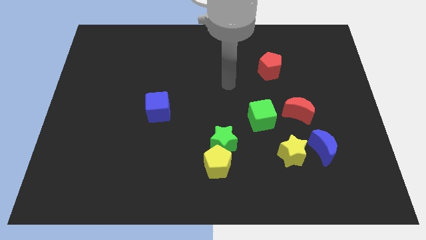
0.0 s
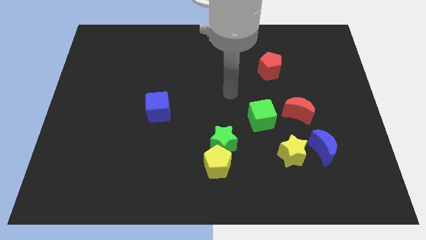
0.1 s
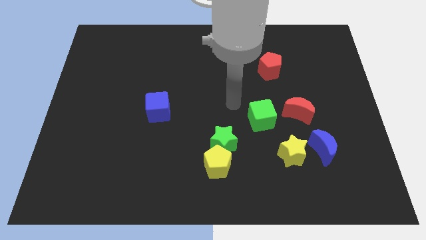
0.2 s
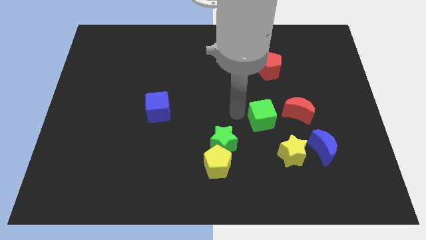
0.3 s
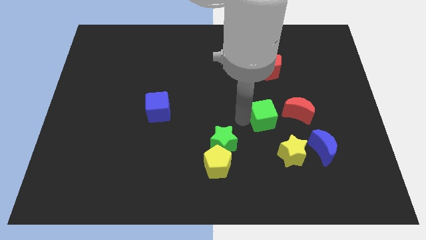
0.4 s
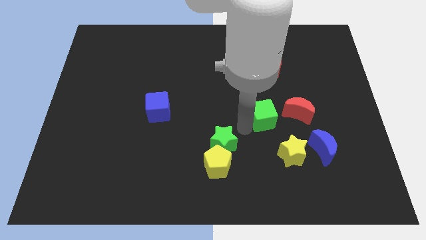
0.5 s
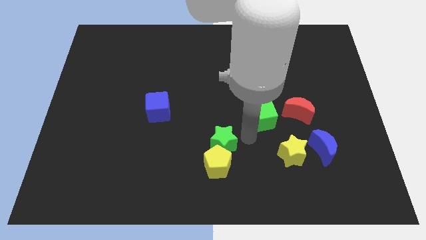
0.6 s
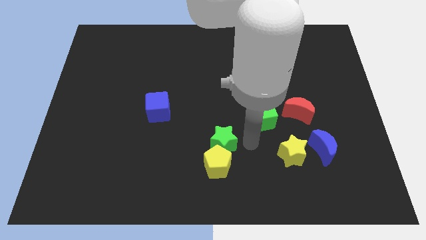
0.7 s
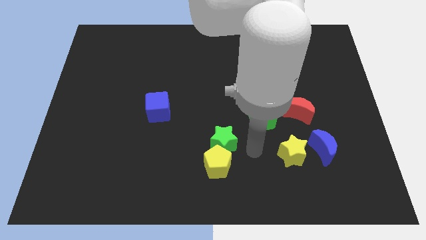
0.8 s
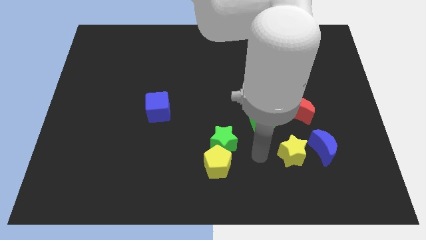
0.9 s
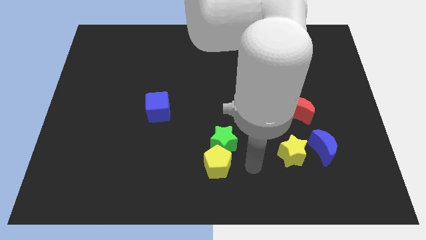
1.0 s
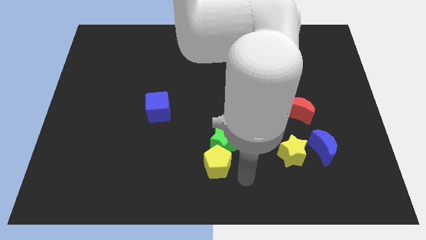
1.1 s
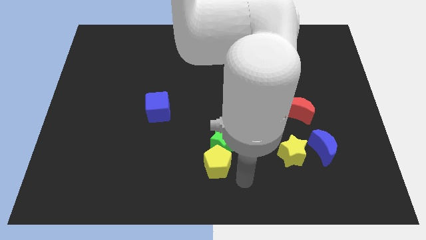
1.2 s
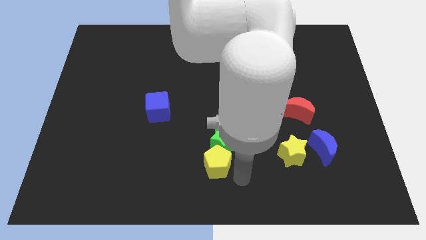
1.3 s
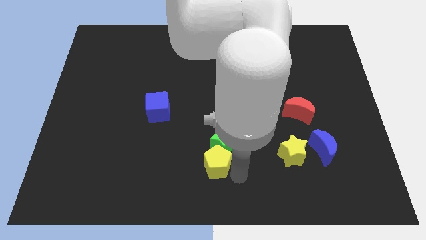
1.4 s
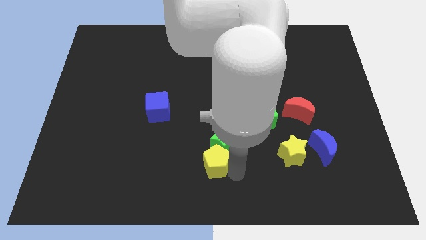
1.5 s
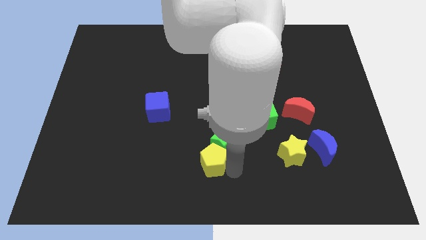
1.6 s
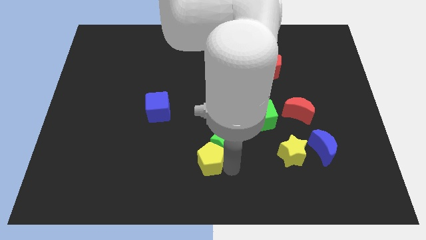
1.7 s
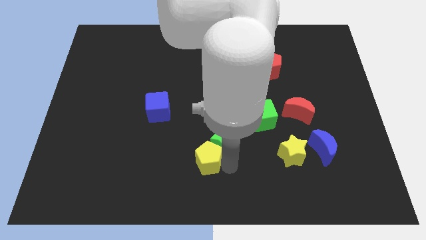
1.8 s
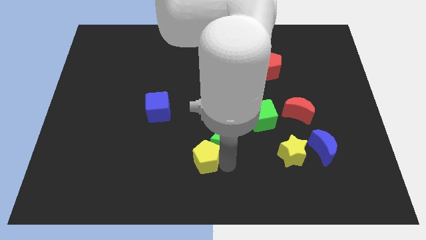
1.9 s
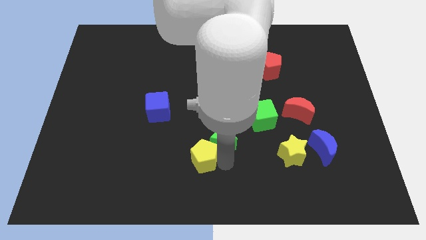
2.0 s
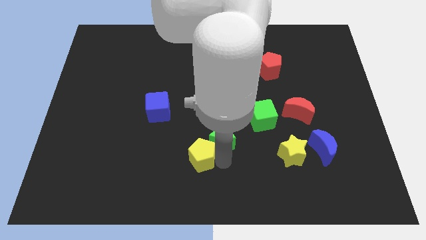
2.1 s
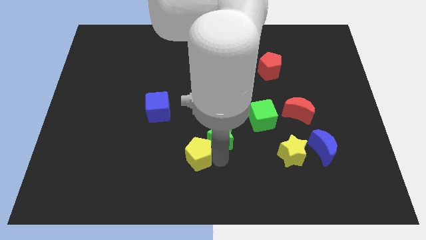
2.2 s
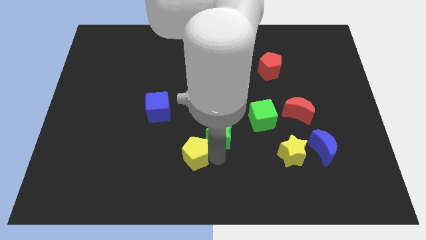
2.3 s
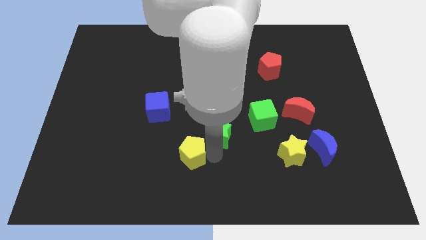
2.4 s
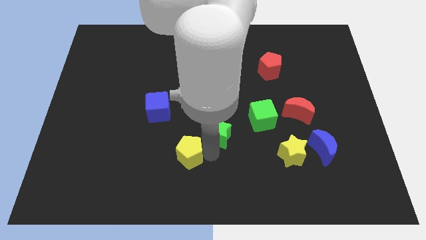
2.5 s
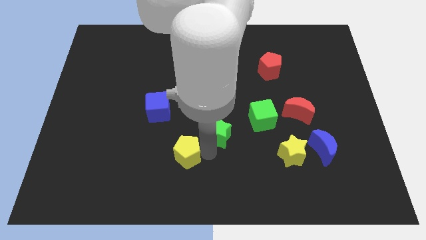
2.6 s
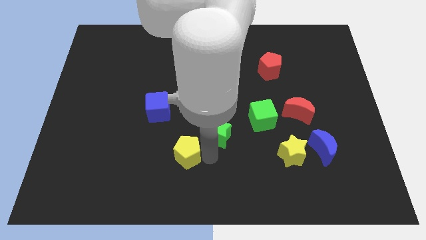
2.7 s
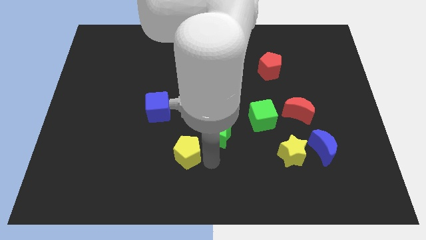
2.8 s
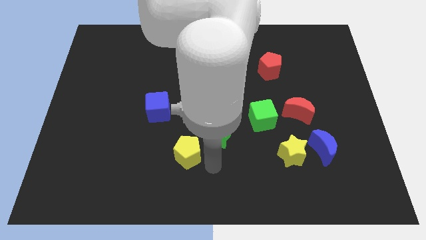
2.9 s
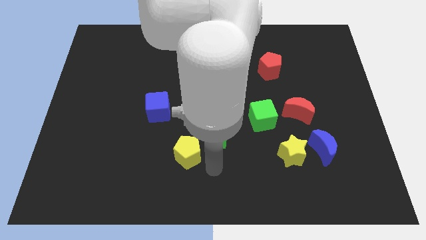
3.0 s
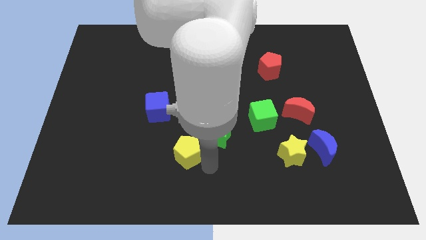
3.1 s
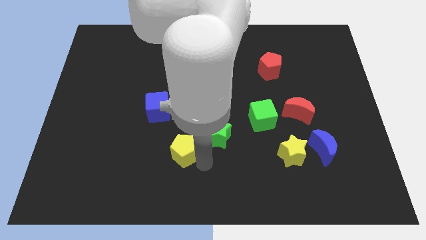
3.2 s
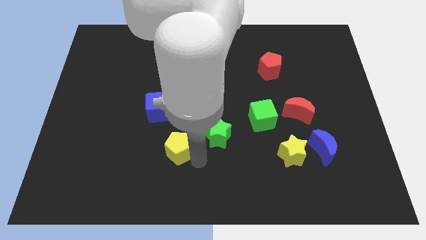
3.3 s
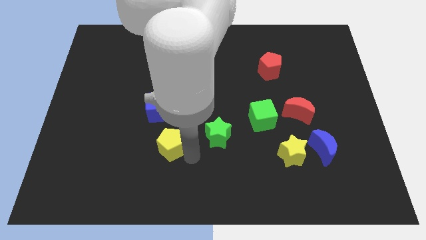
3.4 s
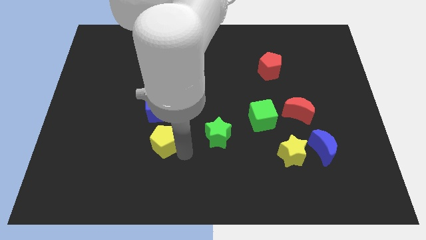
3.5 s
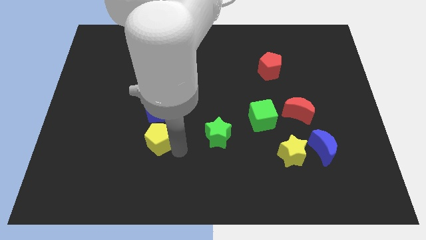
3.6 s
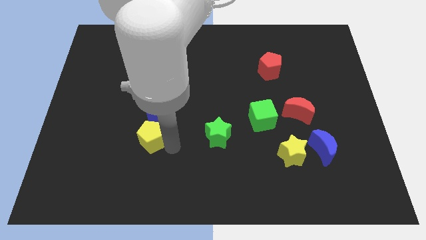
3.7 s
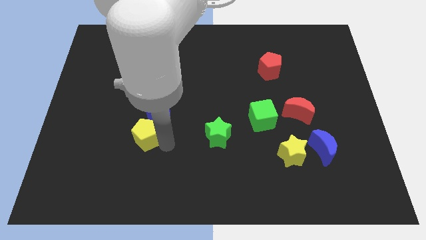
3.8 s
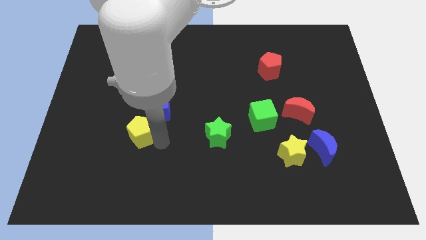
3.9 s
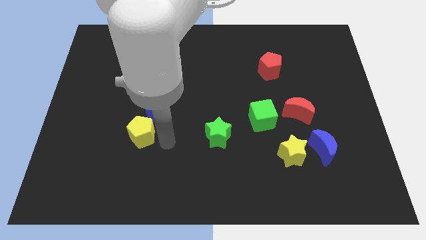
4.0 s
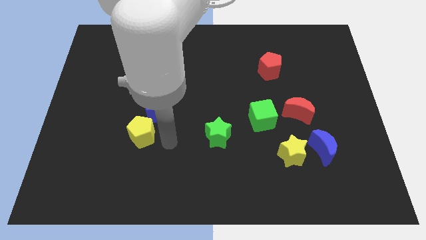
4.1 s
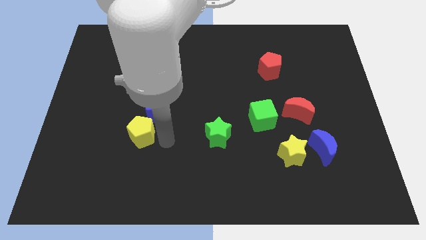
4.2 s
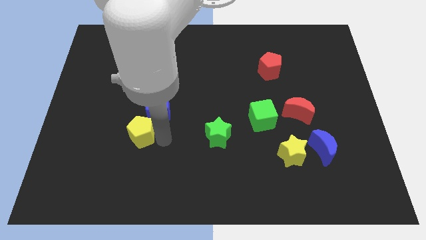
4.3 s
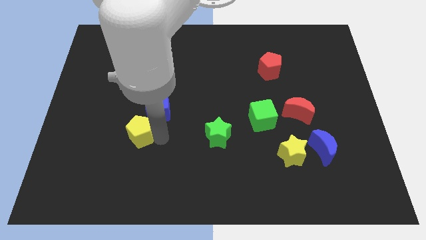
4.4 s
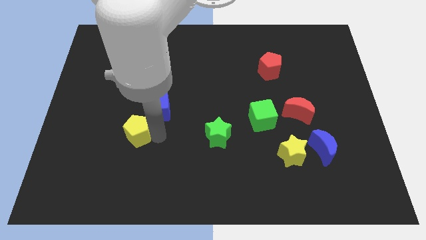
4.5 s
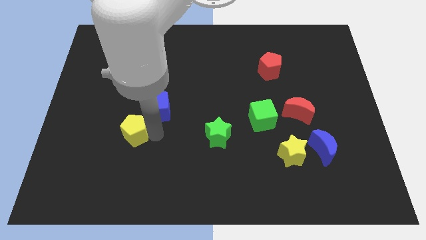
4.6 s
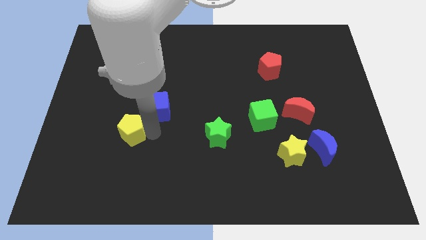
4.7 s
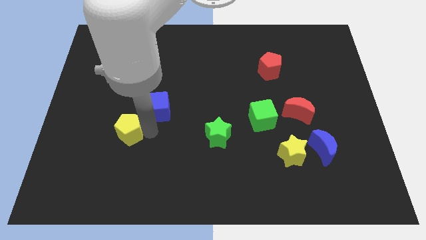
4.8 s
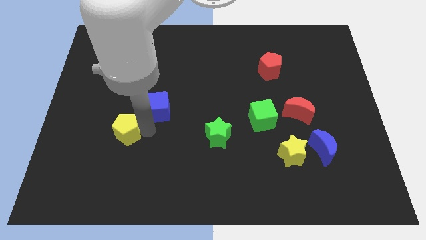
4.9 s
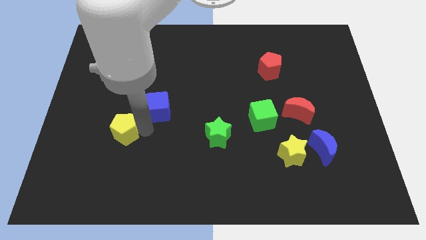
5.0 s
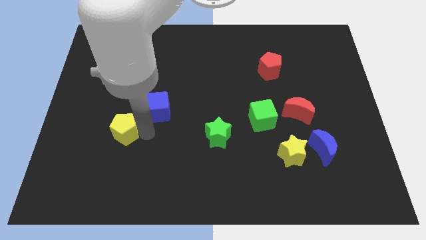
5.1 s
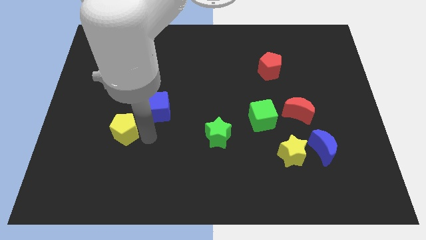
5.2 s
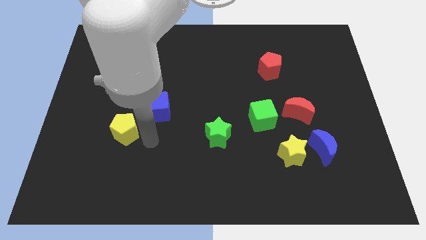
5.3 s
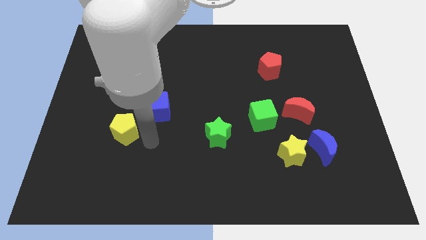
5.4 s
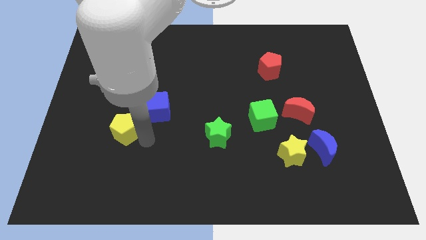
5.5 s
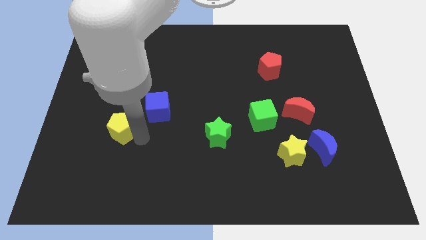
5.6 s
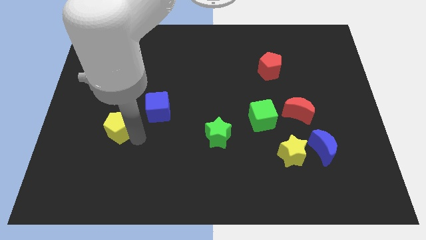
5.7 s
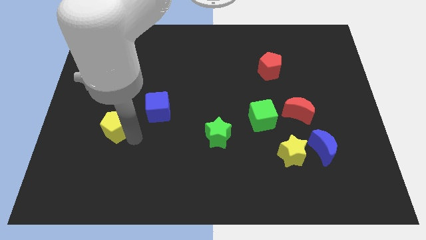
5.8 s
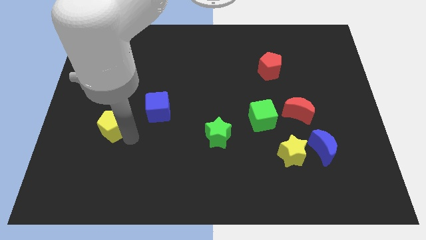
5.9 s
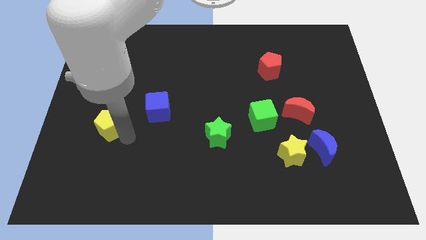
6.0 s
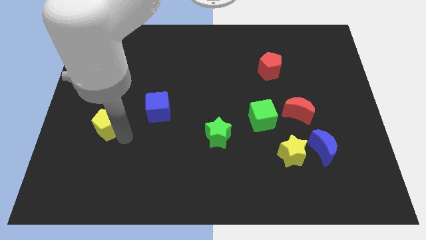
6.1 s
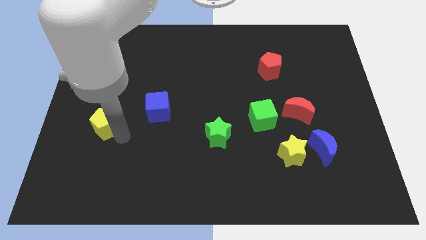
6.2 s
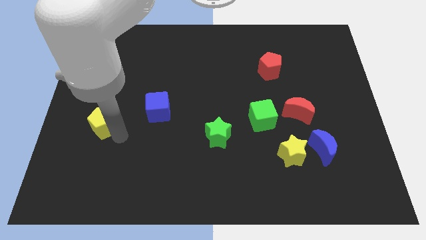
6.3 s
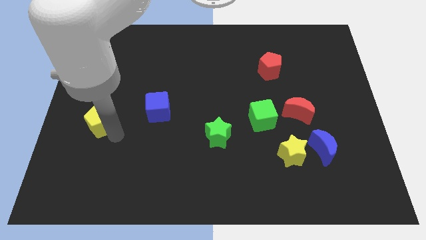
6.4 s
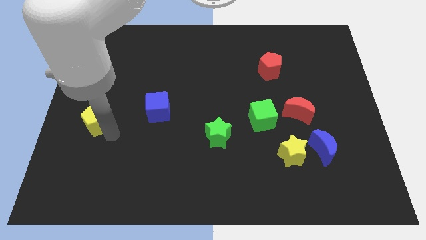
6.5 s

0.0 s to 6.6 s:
put the yellow pentagon to the left side
